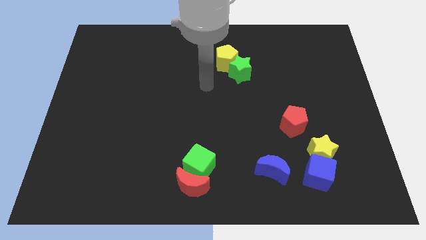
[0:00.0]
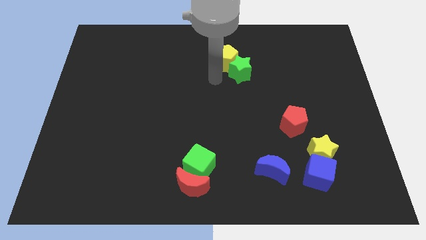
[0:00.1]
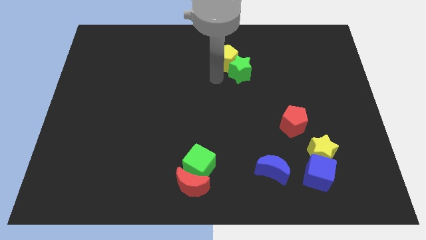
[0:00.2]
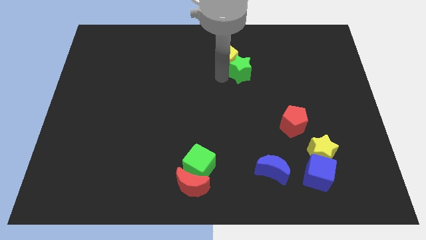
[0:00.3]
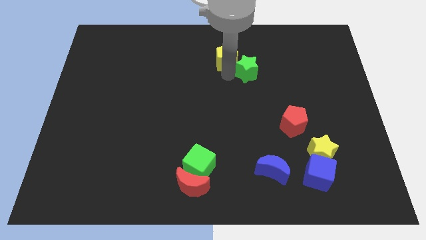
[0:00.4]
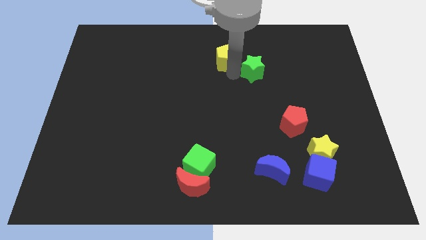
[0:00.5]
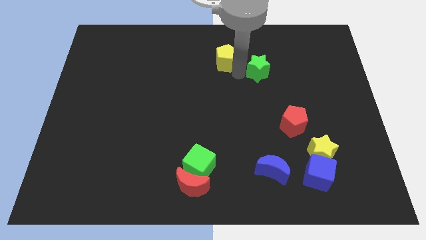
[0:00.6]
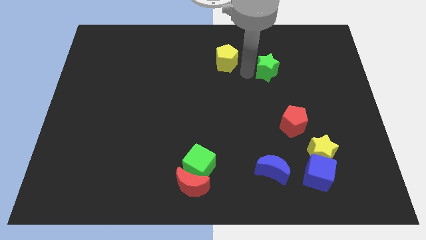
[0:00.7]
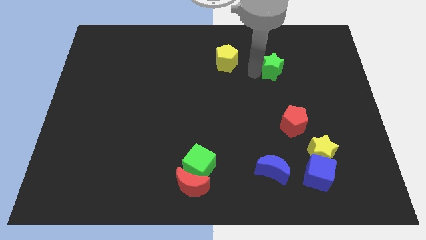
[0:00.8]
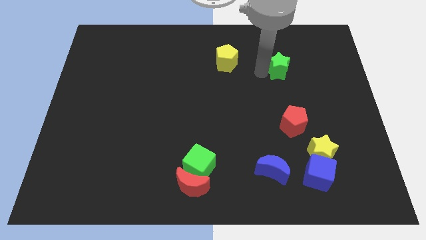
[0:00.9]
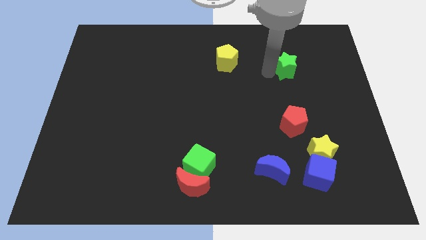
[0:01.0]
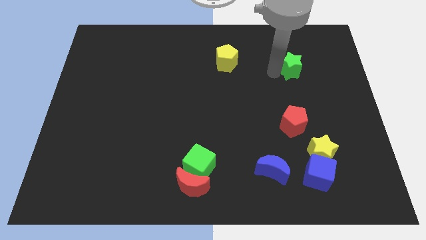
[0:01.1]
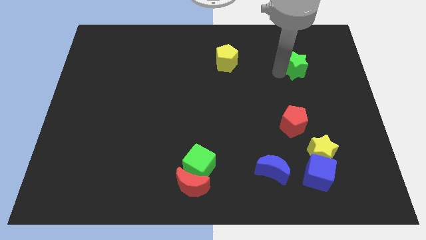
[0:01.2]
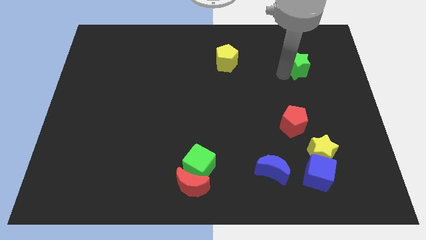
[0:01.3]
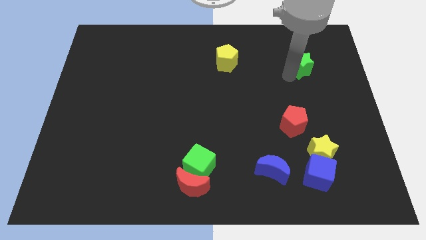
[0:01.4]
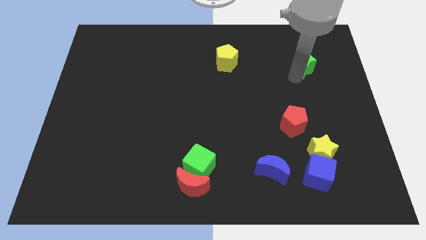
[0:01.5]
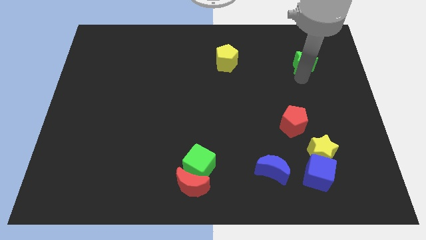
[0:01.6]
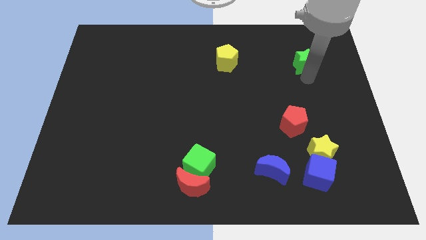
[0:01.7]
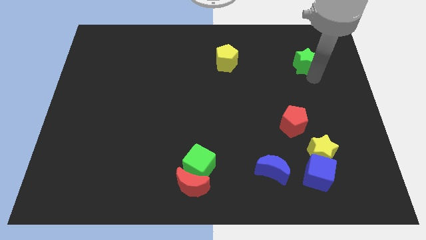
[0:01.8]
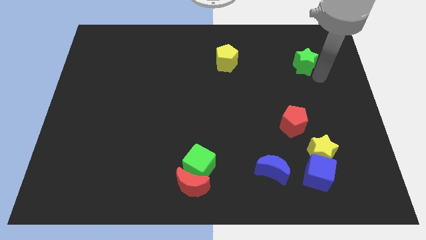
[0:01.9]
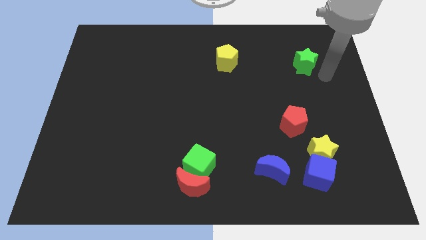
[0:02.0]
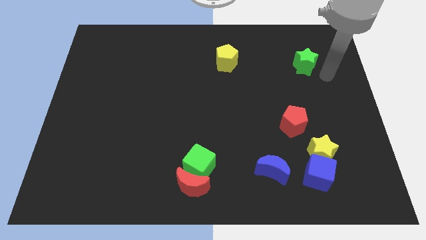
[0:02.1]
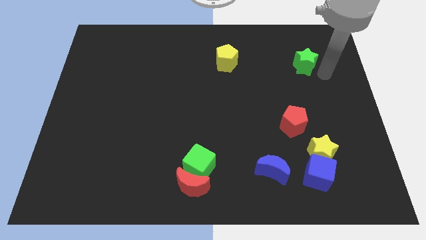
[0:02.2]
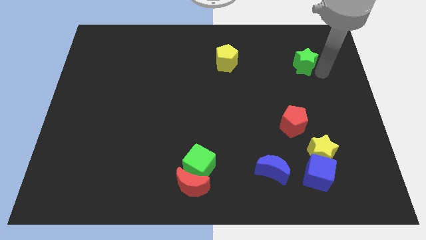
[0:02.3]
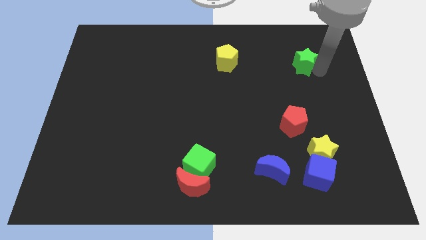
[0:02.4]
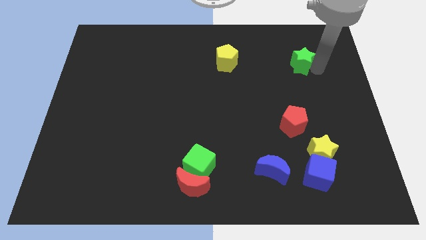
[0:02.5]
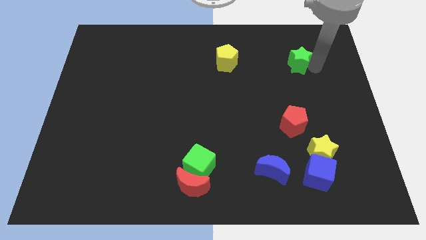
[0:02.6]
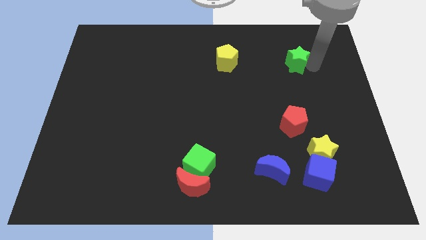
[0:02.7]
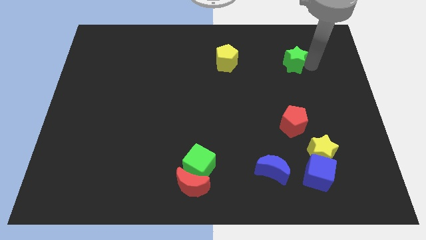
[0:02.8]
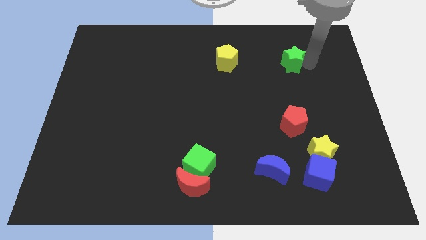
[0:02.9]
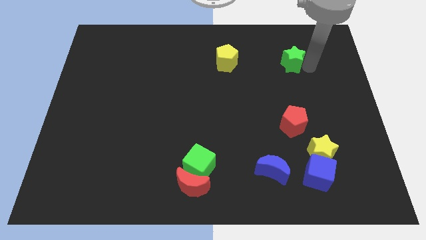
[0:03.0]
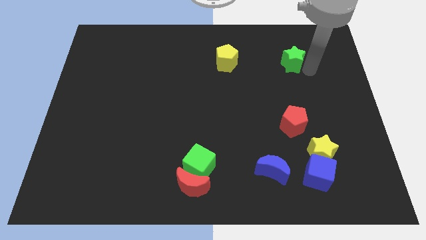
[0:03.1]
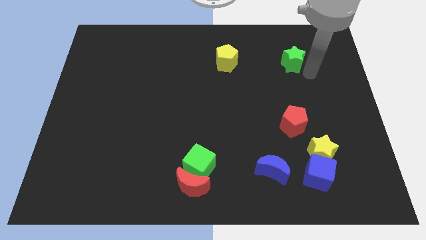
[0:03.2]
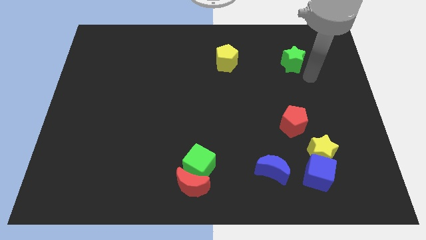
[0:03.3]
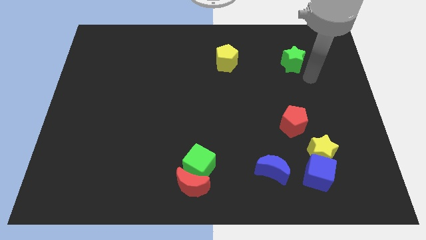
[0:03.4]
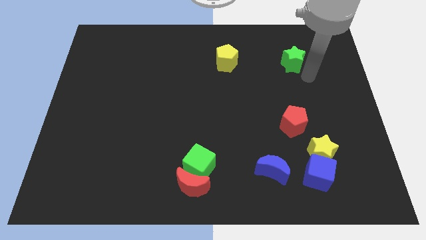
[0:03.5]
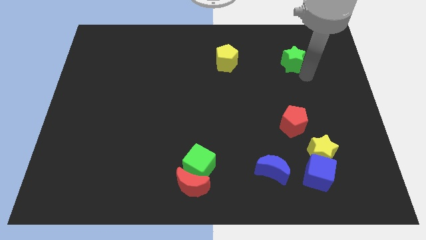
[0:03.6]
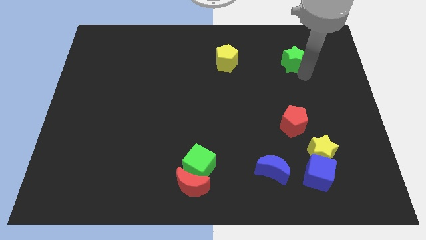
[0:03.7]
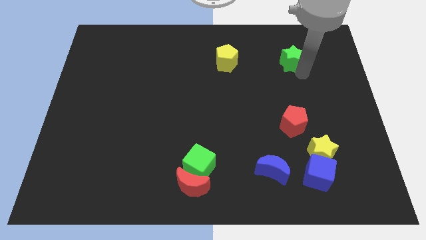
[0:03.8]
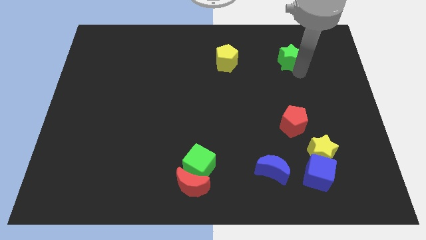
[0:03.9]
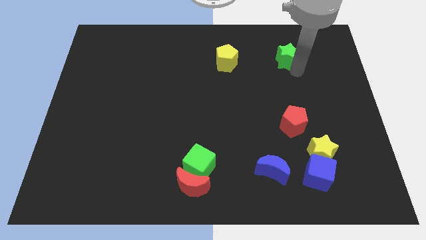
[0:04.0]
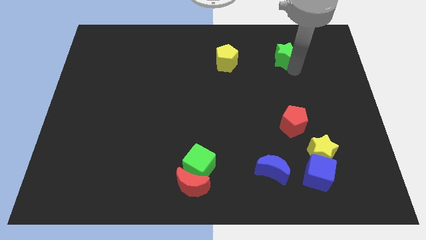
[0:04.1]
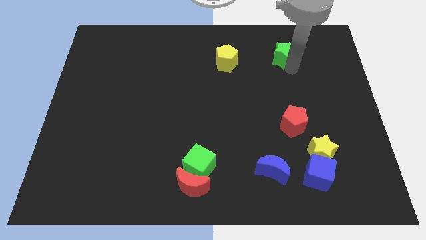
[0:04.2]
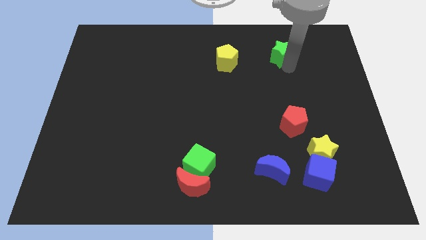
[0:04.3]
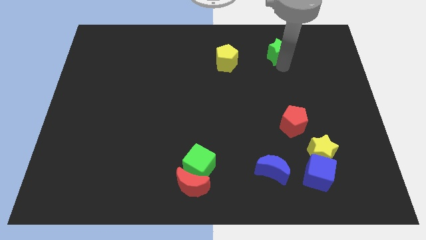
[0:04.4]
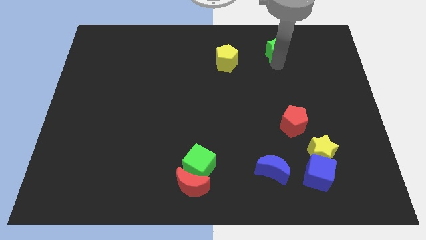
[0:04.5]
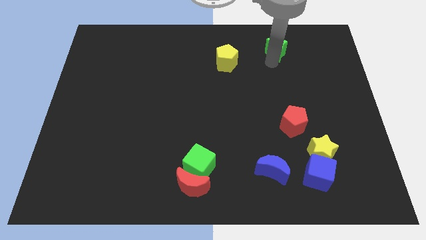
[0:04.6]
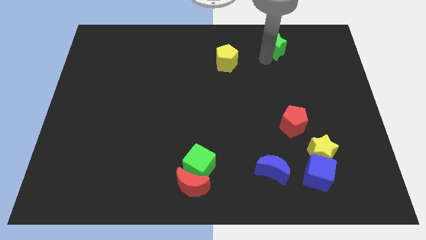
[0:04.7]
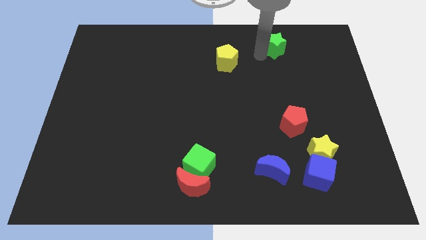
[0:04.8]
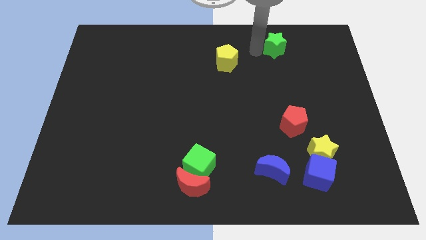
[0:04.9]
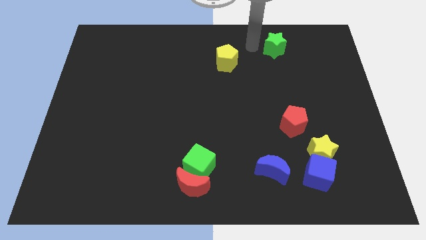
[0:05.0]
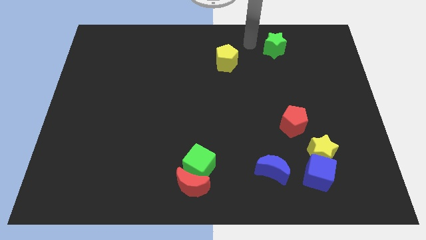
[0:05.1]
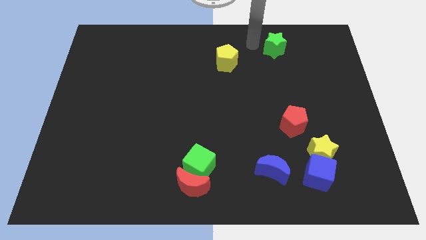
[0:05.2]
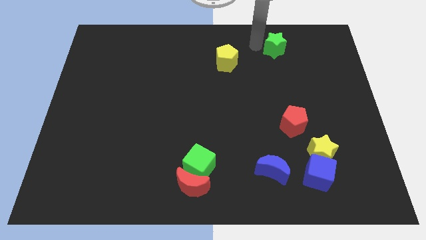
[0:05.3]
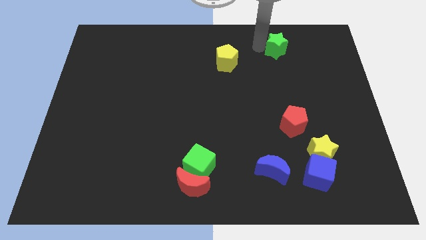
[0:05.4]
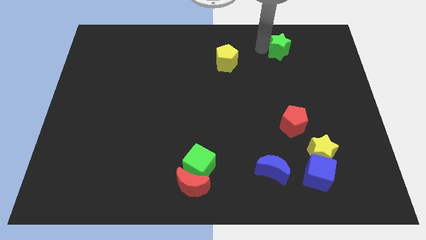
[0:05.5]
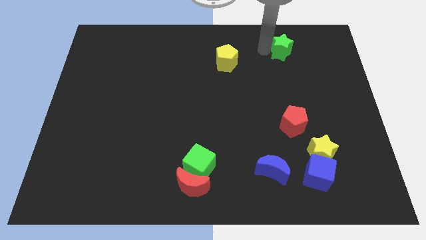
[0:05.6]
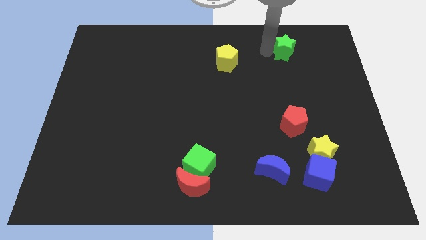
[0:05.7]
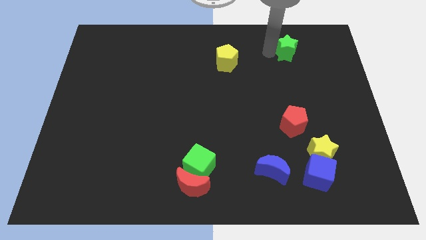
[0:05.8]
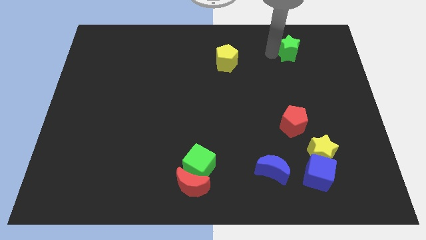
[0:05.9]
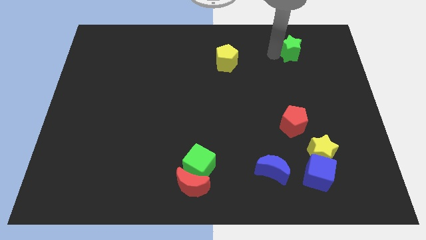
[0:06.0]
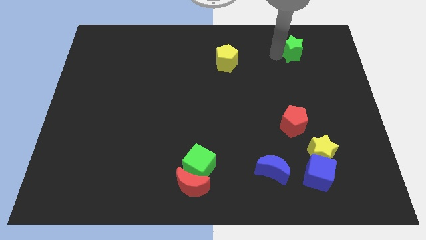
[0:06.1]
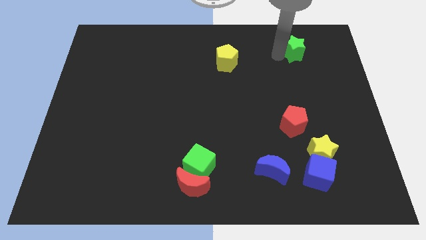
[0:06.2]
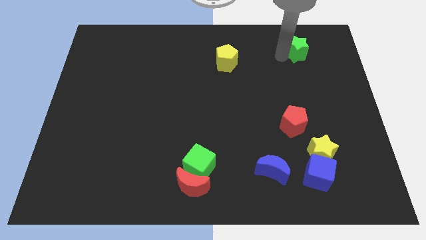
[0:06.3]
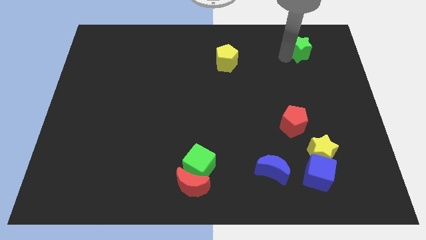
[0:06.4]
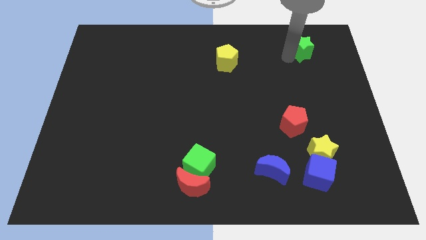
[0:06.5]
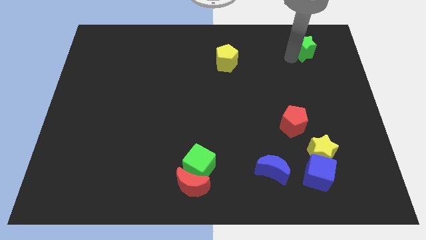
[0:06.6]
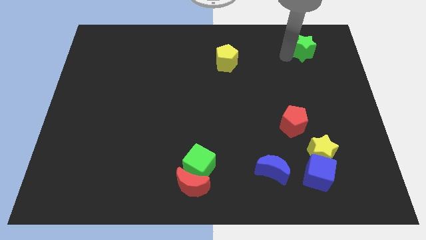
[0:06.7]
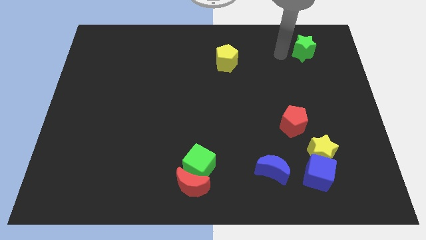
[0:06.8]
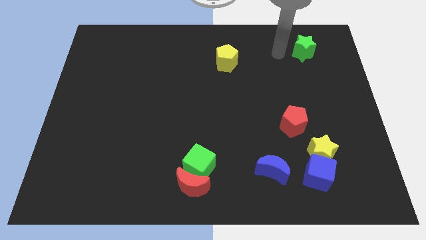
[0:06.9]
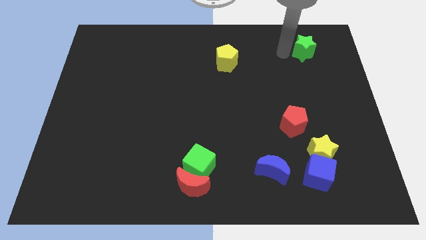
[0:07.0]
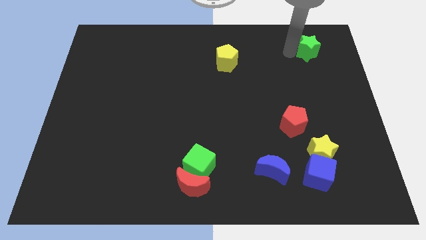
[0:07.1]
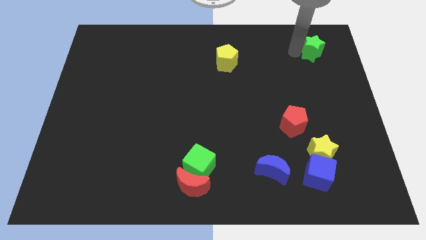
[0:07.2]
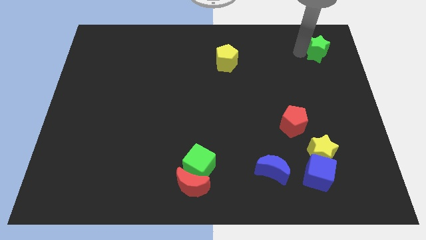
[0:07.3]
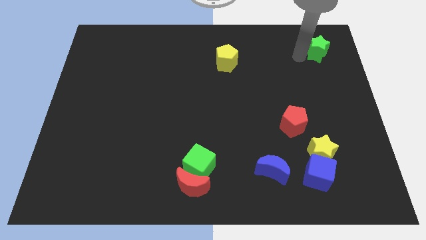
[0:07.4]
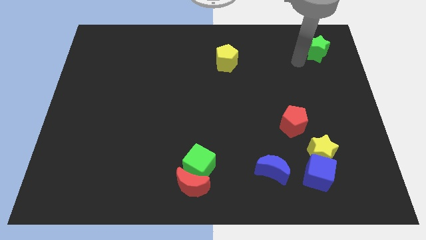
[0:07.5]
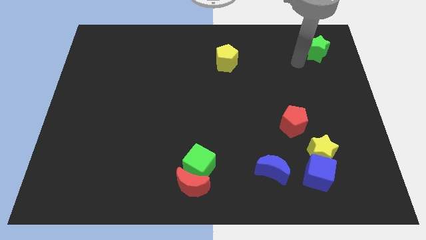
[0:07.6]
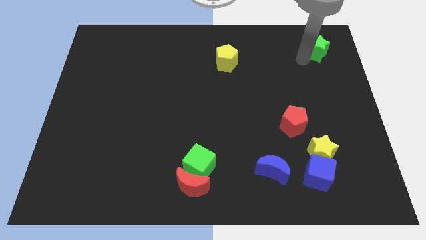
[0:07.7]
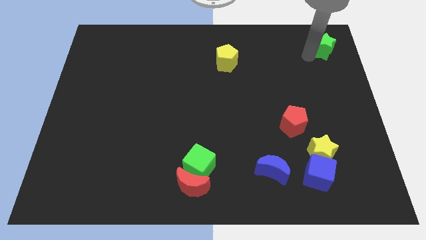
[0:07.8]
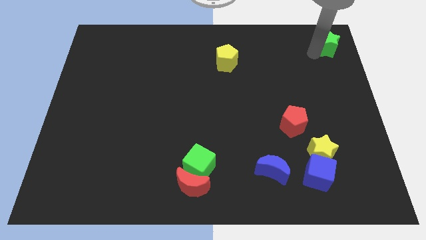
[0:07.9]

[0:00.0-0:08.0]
push the green star to the top right
